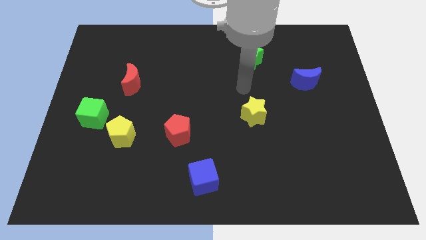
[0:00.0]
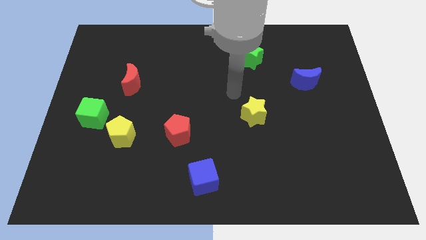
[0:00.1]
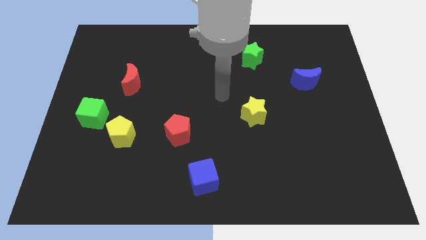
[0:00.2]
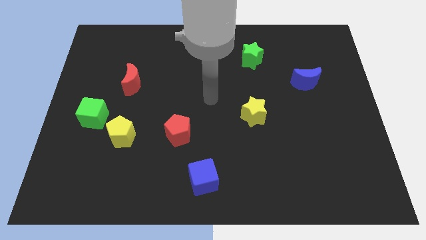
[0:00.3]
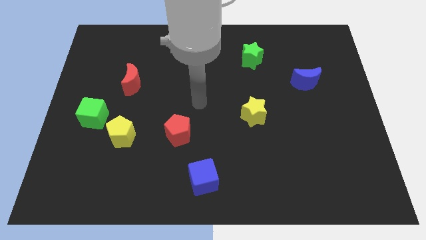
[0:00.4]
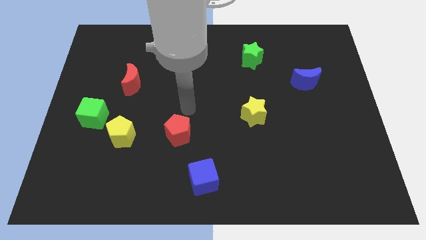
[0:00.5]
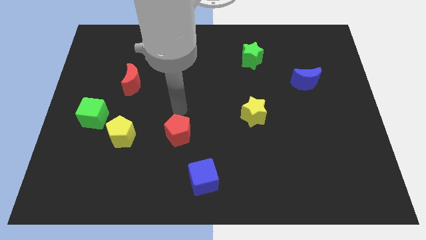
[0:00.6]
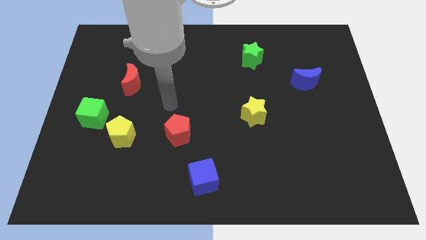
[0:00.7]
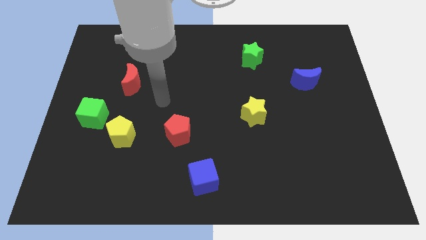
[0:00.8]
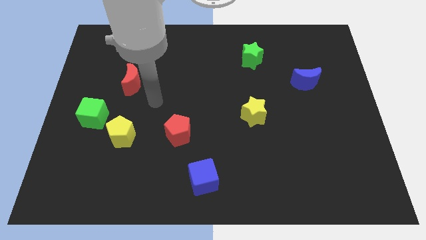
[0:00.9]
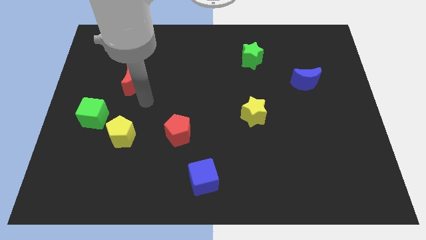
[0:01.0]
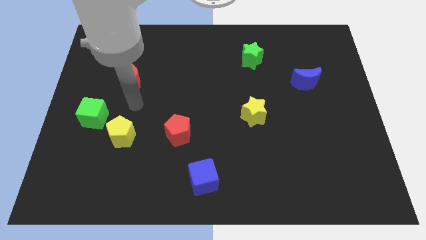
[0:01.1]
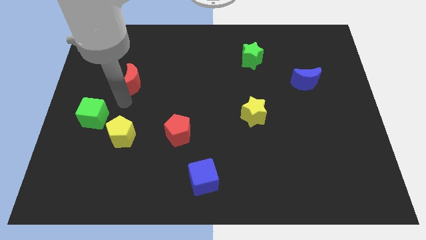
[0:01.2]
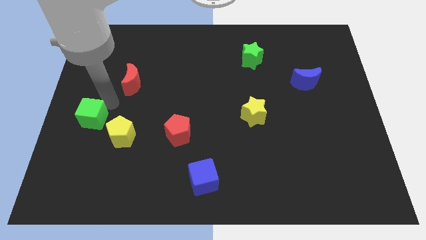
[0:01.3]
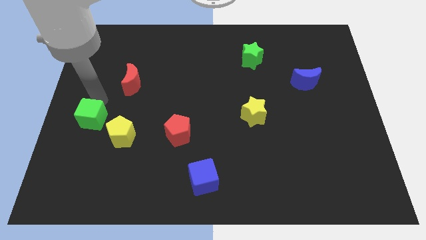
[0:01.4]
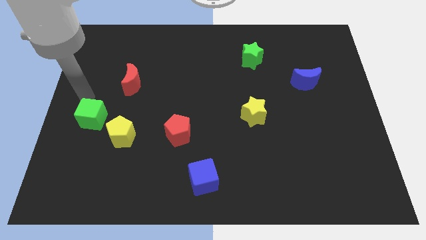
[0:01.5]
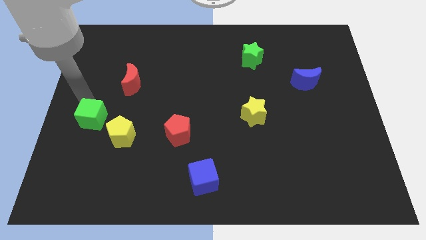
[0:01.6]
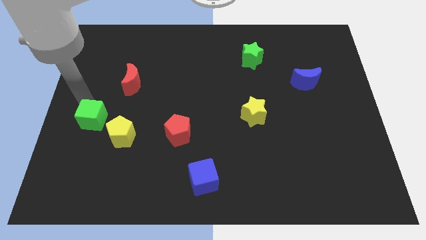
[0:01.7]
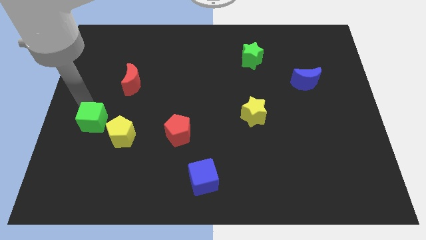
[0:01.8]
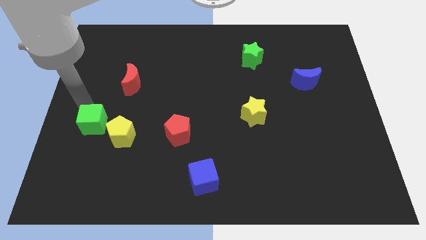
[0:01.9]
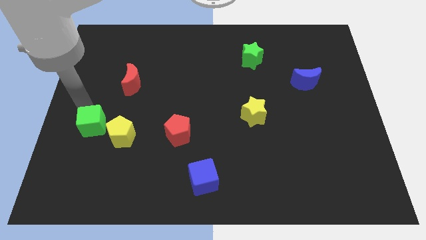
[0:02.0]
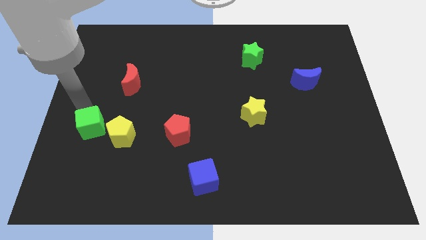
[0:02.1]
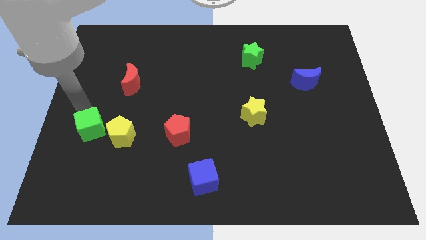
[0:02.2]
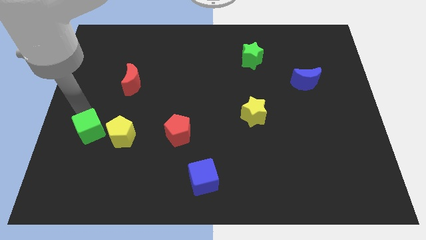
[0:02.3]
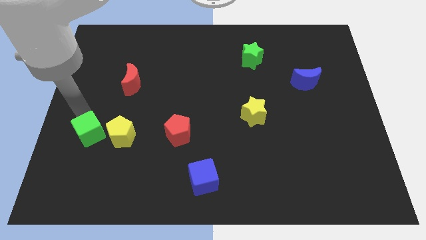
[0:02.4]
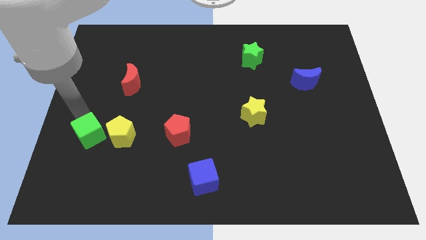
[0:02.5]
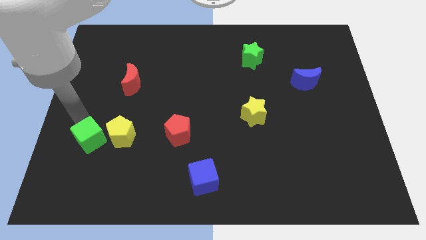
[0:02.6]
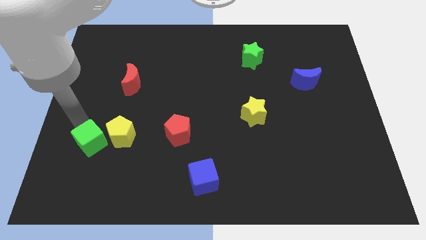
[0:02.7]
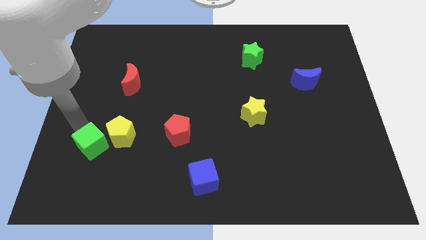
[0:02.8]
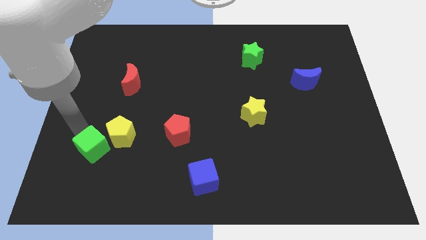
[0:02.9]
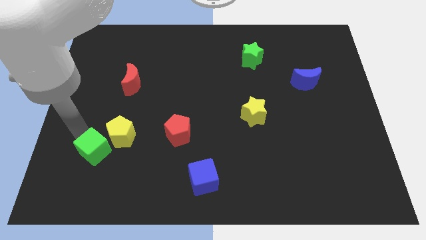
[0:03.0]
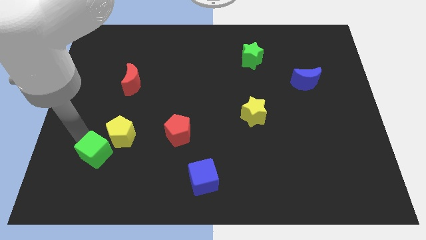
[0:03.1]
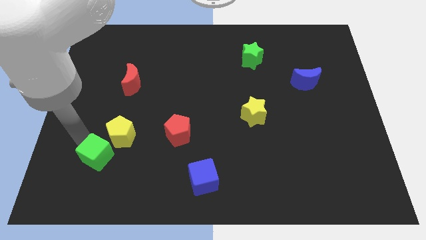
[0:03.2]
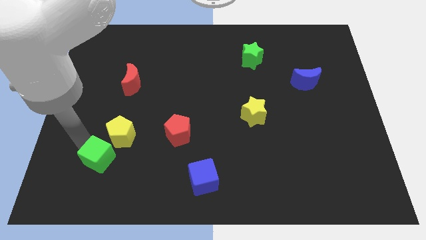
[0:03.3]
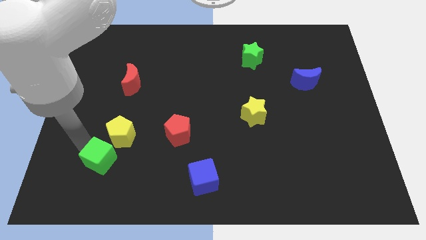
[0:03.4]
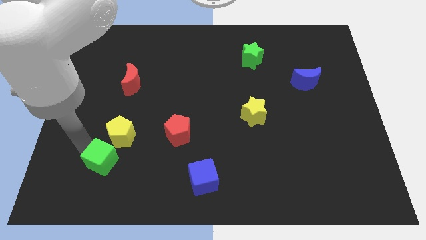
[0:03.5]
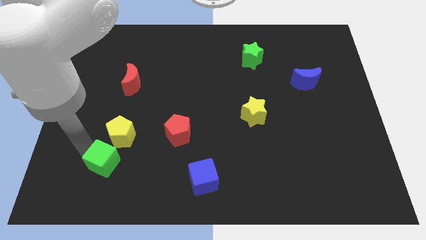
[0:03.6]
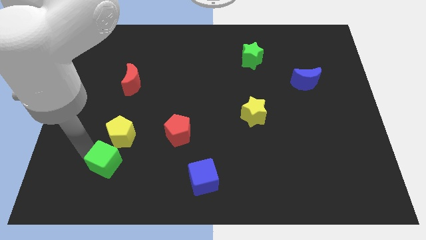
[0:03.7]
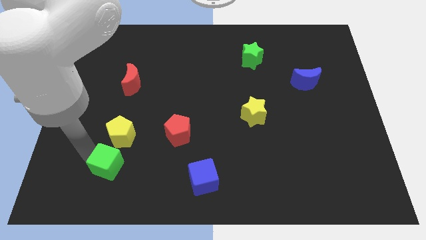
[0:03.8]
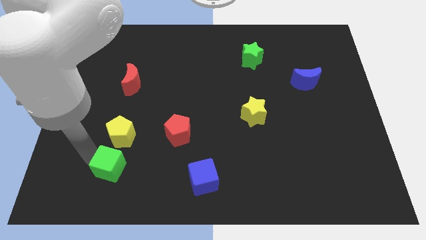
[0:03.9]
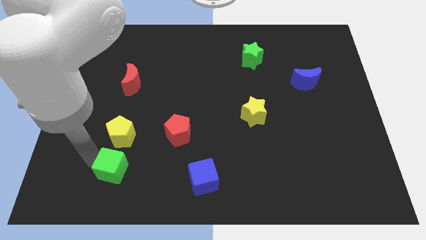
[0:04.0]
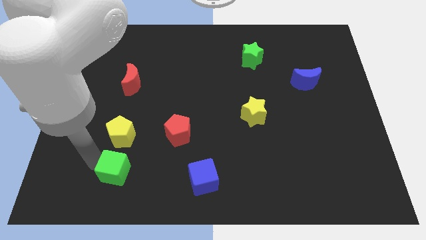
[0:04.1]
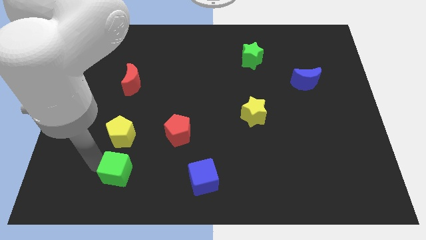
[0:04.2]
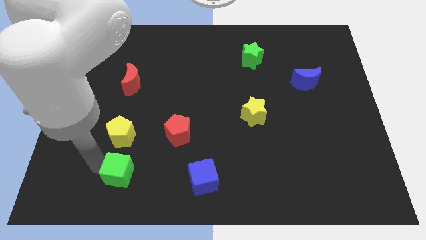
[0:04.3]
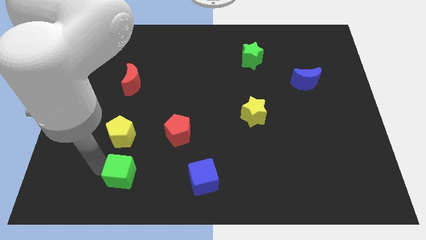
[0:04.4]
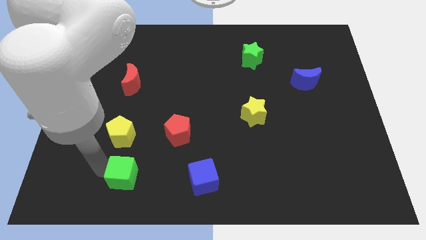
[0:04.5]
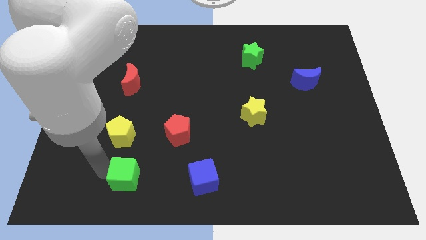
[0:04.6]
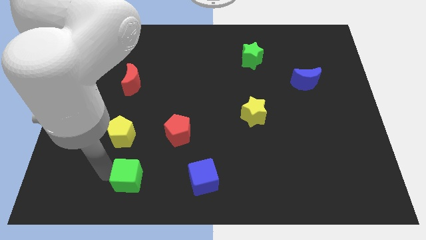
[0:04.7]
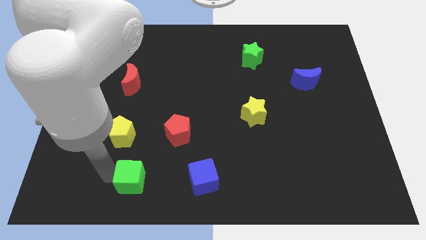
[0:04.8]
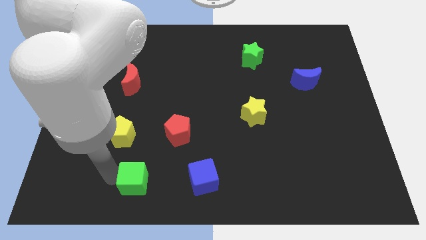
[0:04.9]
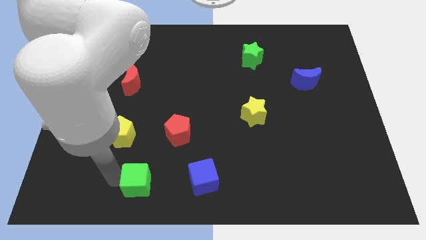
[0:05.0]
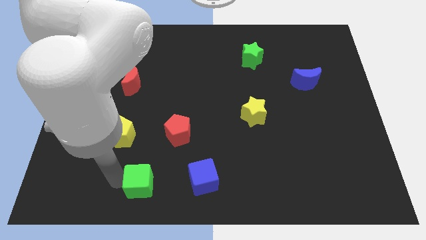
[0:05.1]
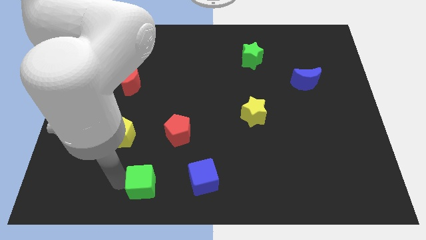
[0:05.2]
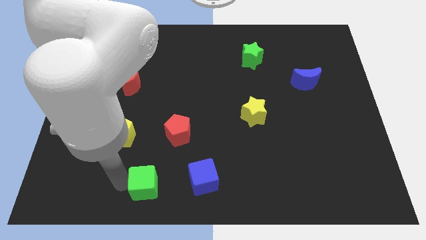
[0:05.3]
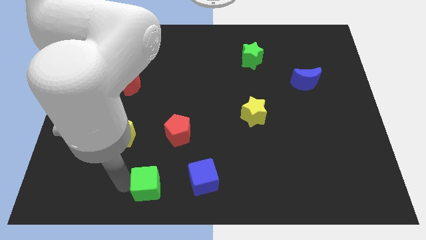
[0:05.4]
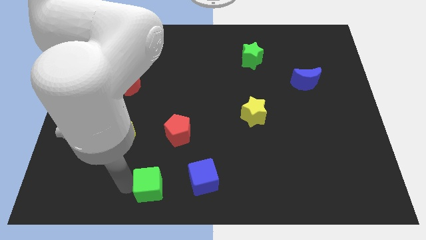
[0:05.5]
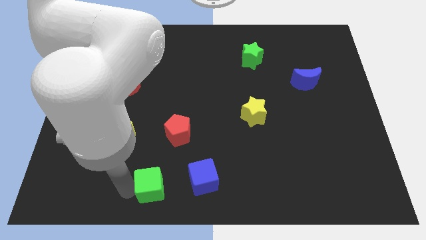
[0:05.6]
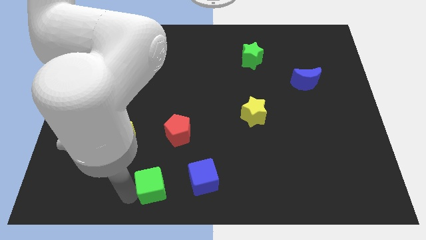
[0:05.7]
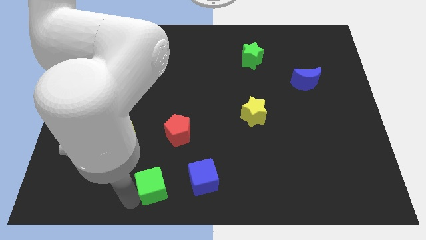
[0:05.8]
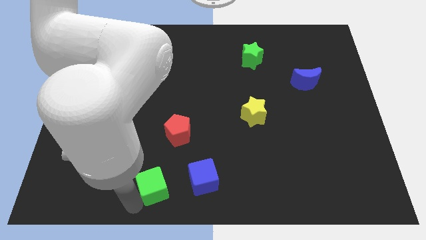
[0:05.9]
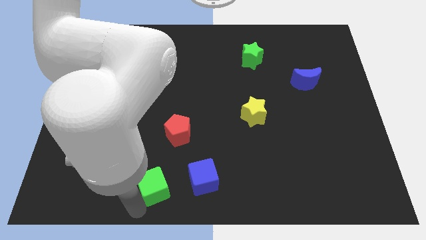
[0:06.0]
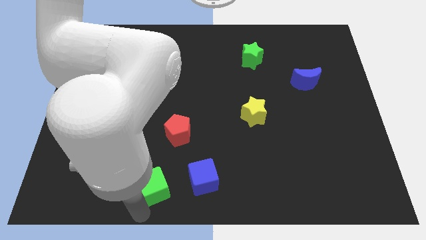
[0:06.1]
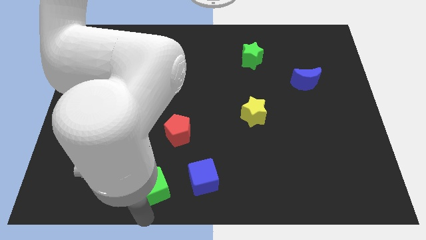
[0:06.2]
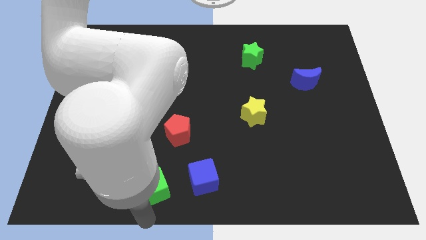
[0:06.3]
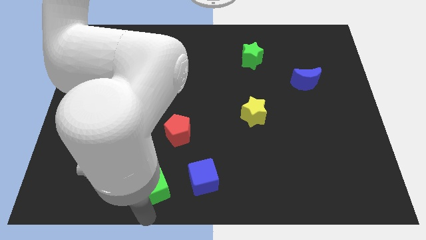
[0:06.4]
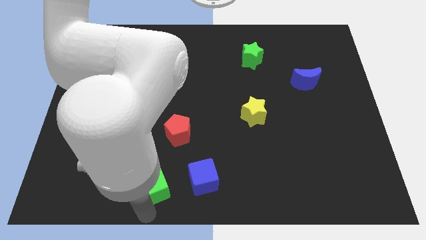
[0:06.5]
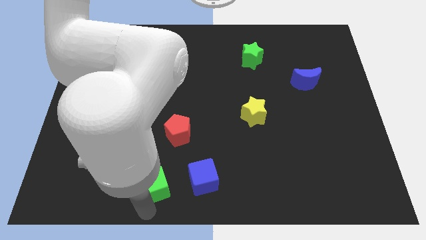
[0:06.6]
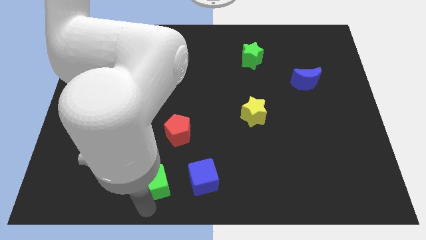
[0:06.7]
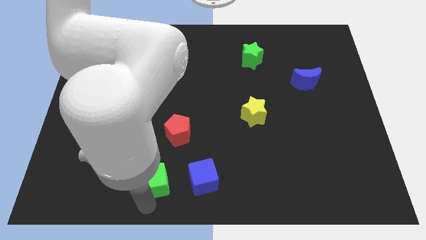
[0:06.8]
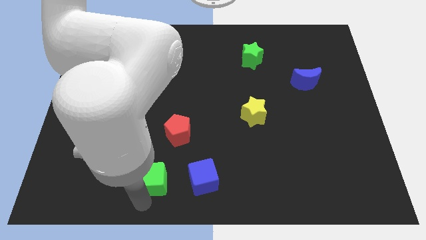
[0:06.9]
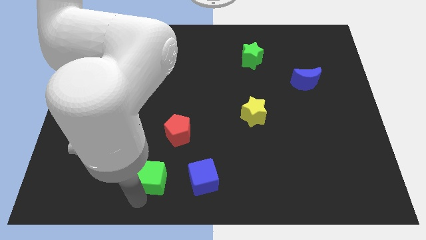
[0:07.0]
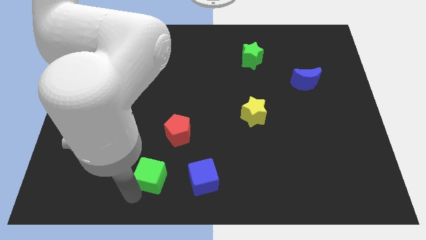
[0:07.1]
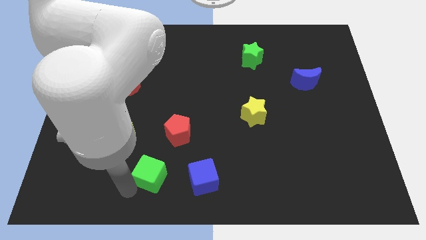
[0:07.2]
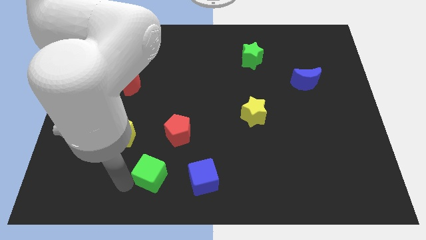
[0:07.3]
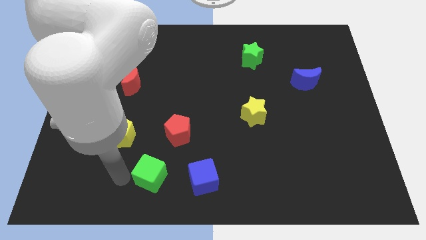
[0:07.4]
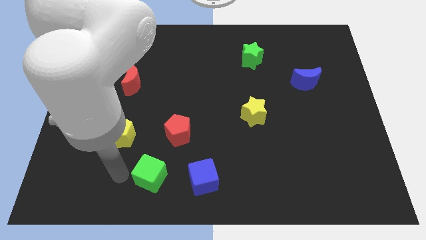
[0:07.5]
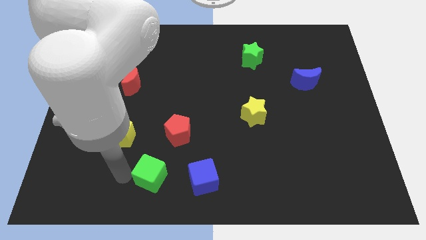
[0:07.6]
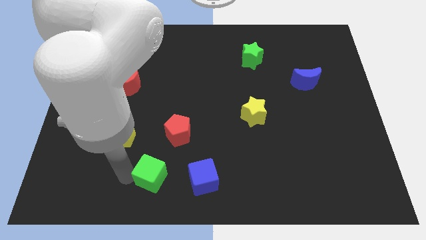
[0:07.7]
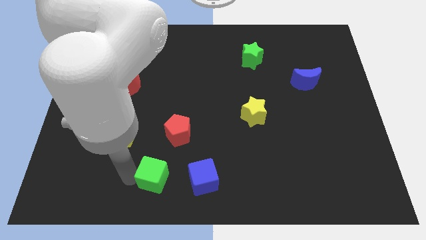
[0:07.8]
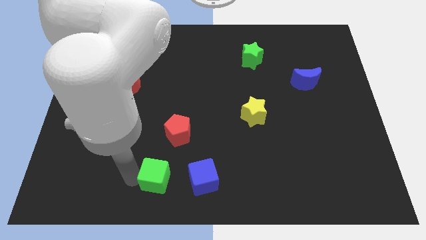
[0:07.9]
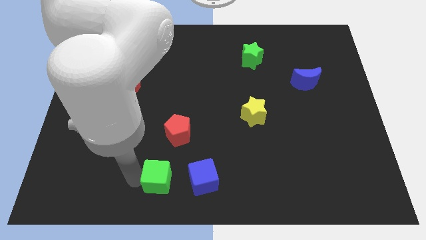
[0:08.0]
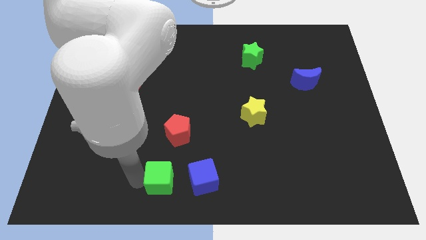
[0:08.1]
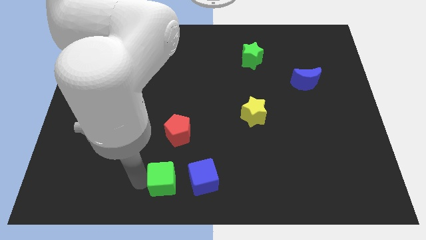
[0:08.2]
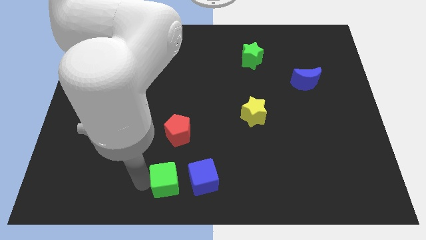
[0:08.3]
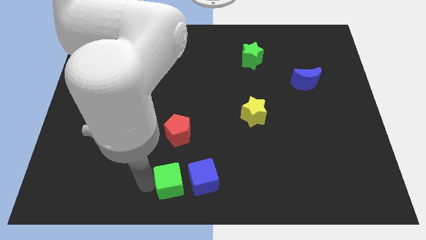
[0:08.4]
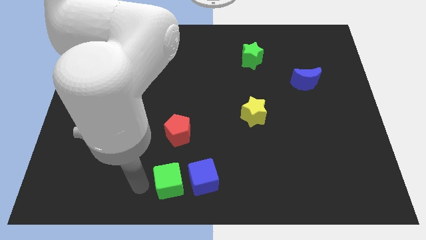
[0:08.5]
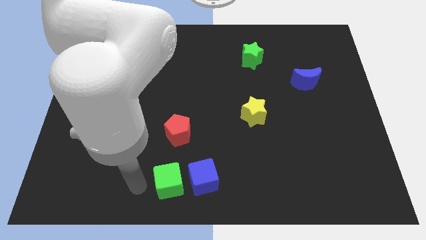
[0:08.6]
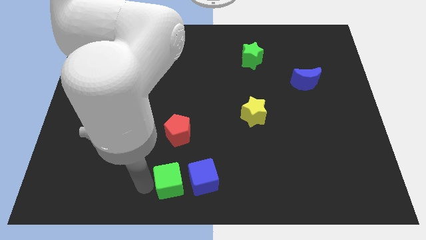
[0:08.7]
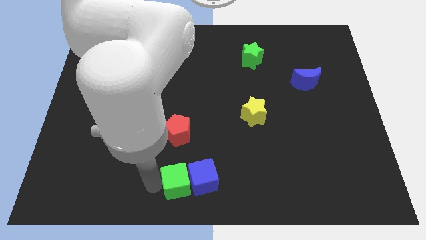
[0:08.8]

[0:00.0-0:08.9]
put the green cube close to the blue cube
